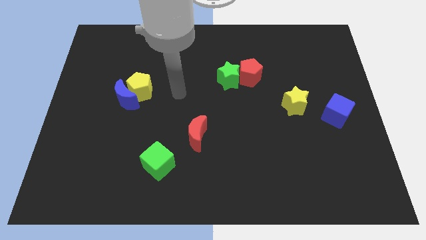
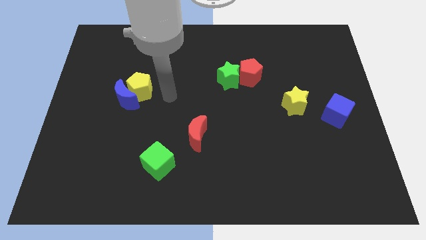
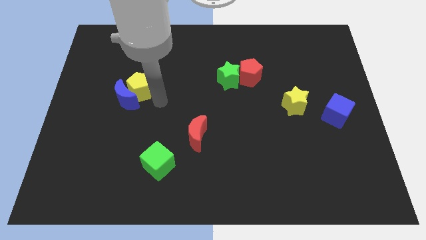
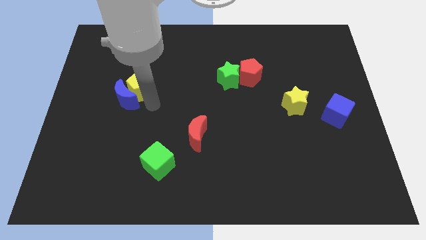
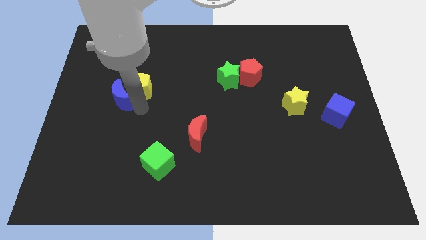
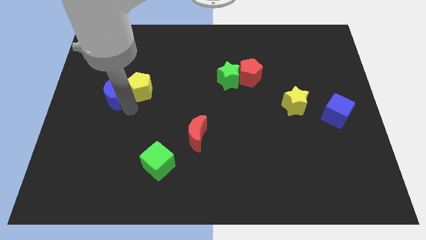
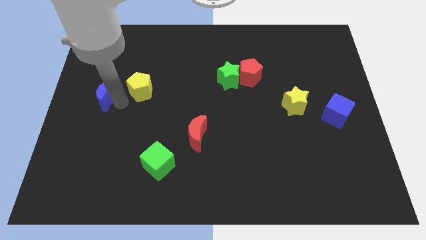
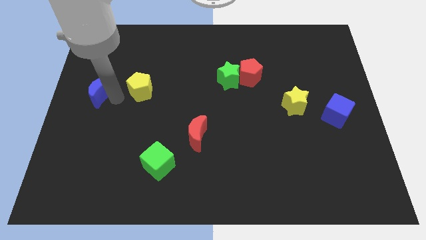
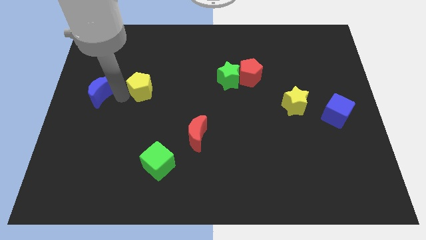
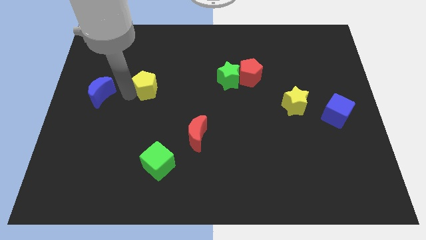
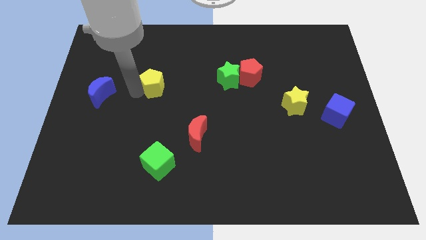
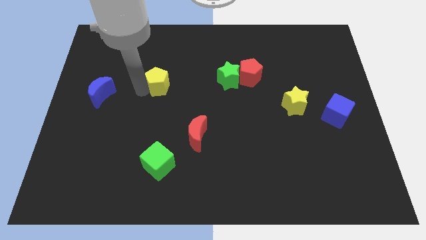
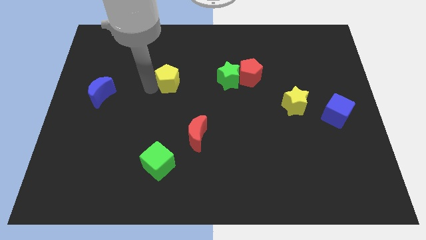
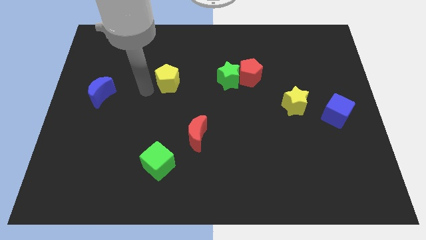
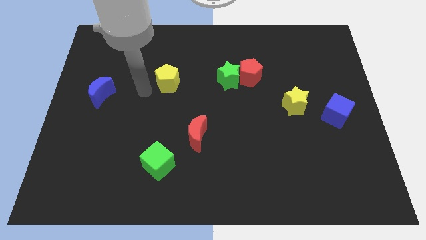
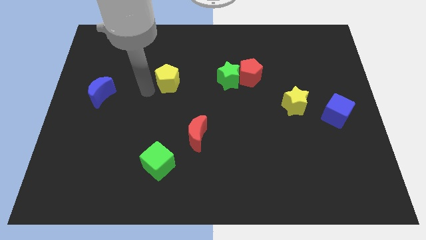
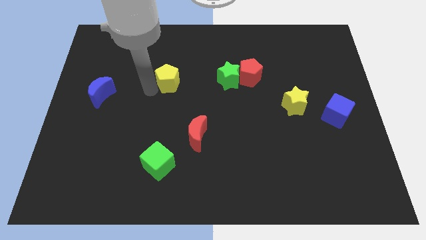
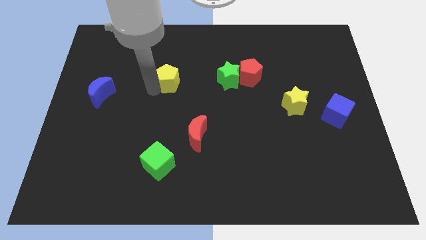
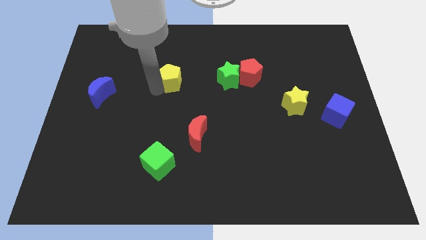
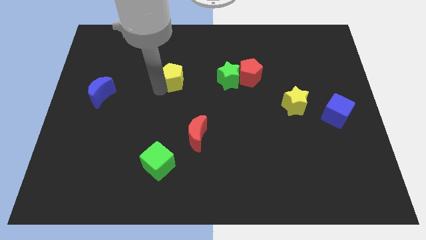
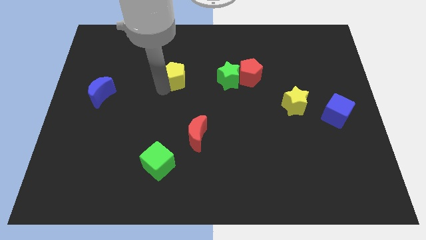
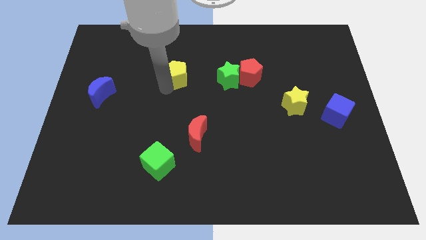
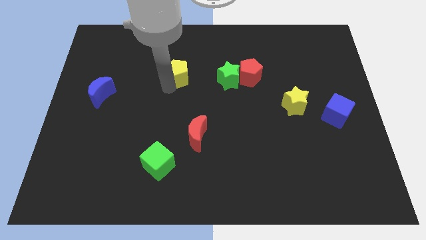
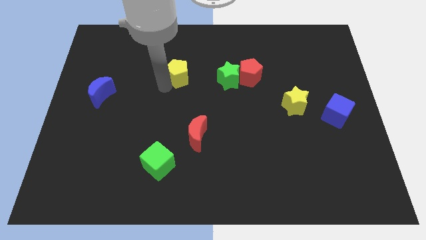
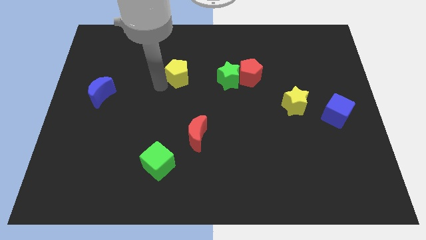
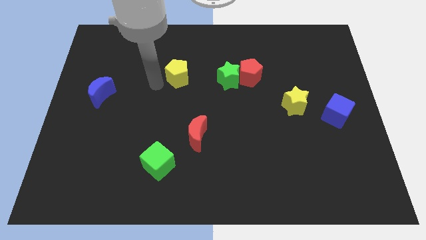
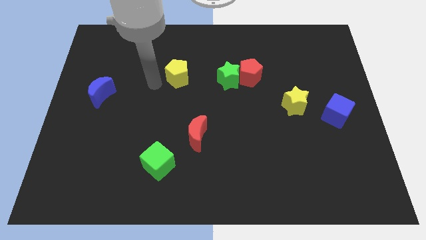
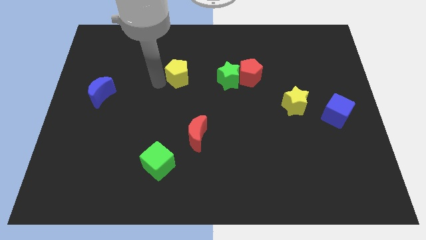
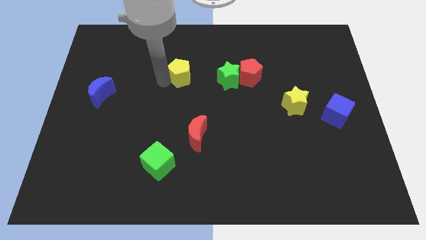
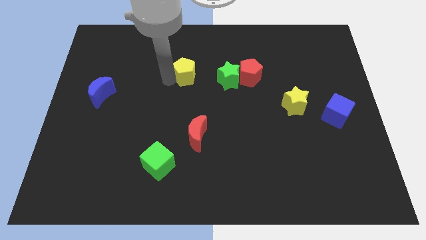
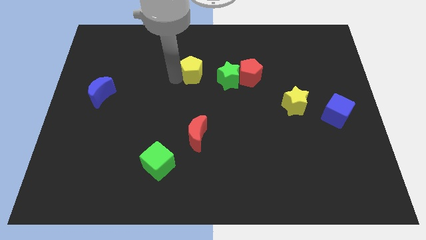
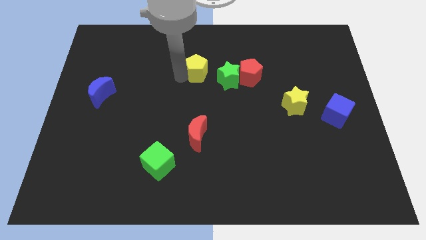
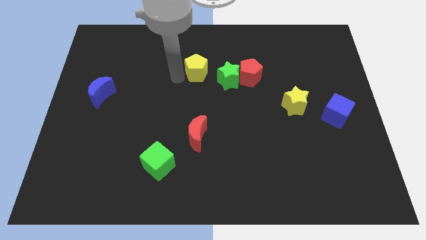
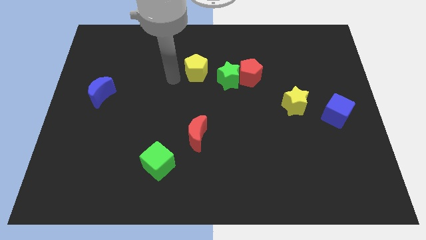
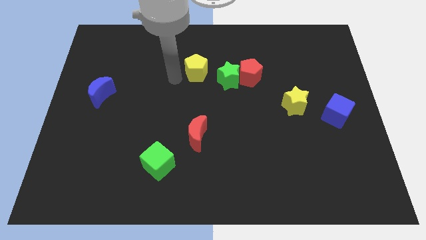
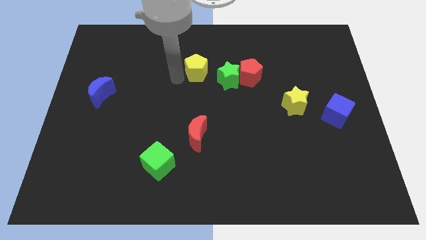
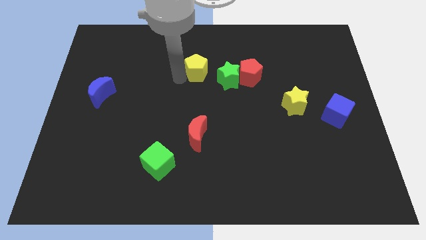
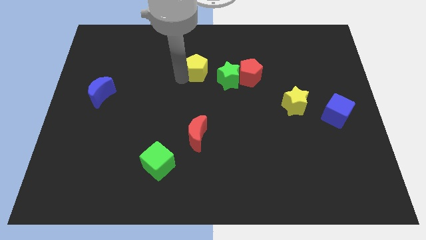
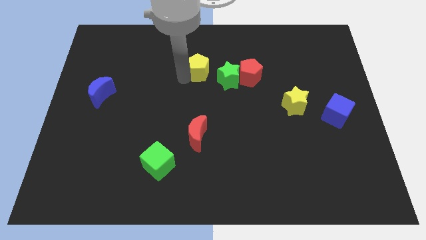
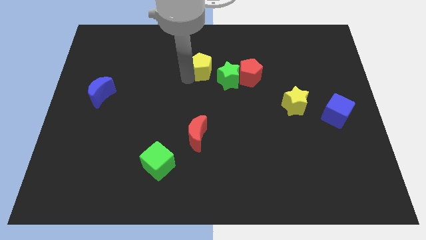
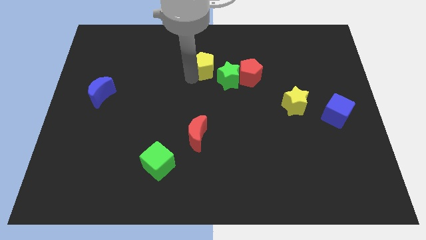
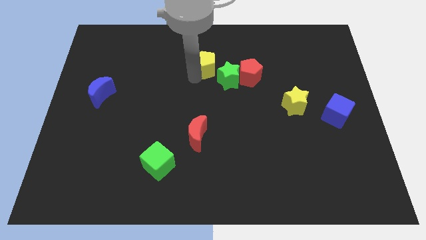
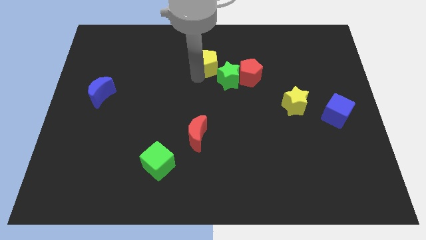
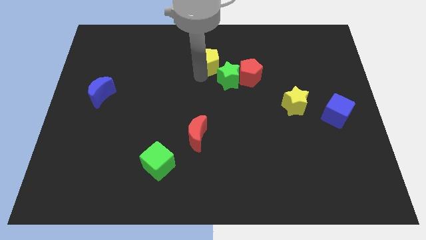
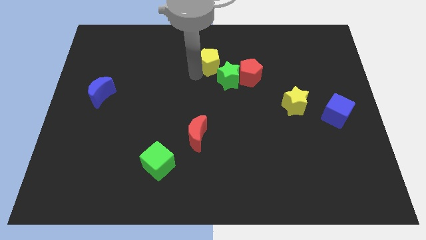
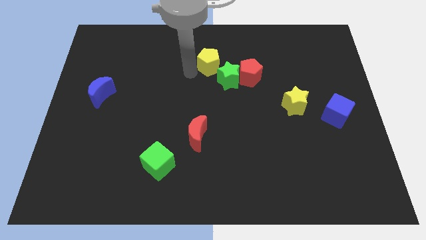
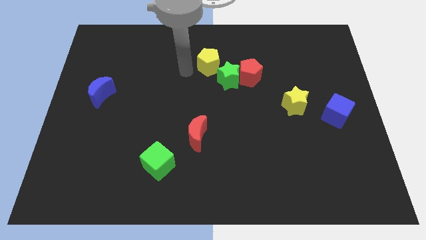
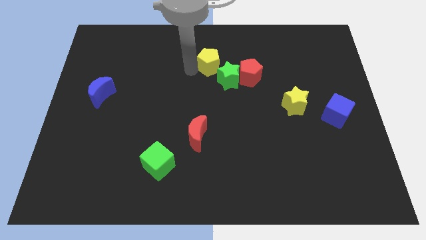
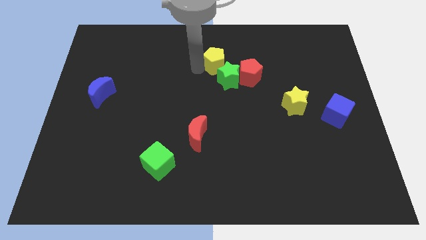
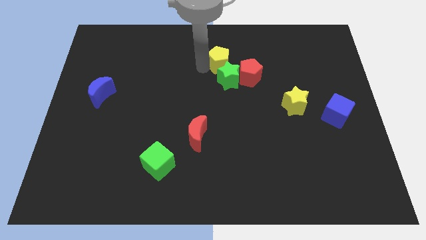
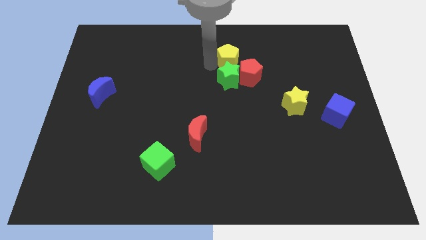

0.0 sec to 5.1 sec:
push the yellow pentagon to the top right side of the green star

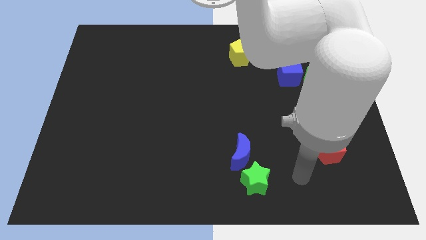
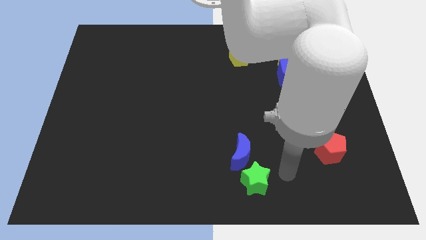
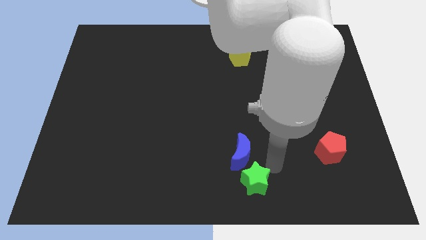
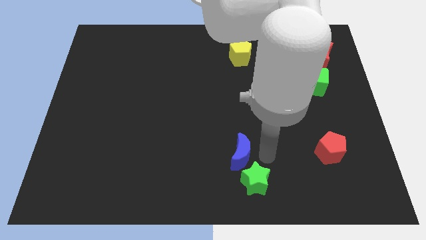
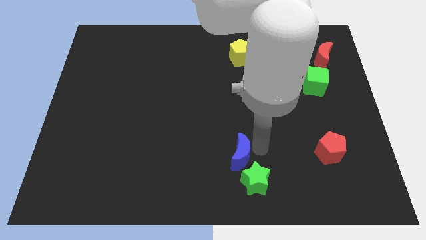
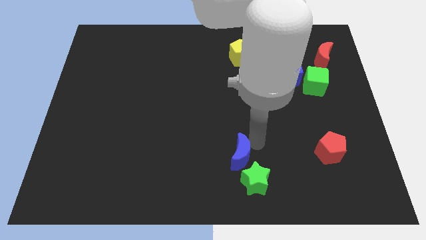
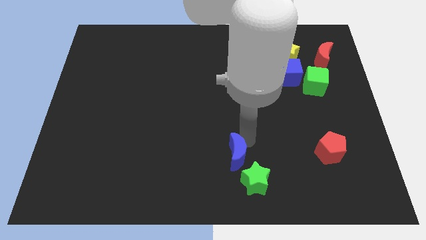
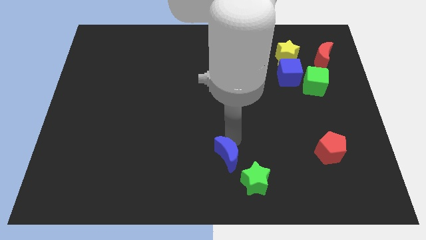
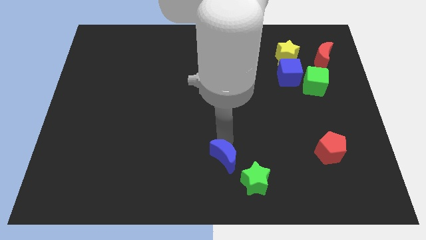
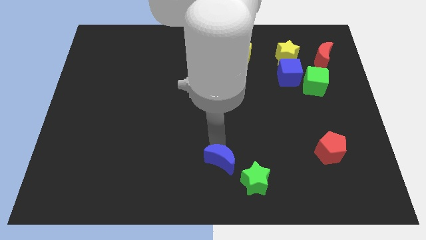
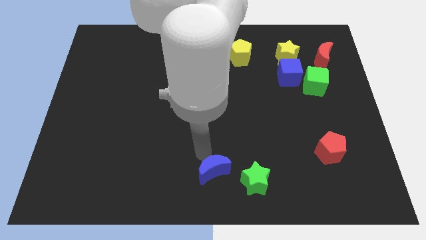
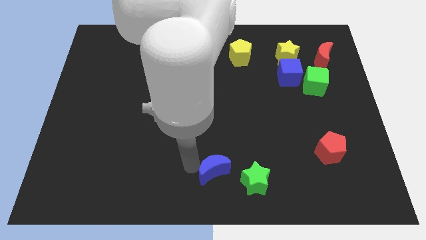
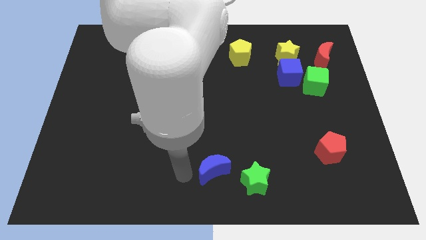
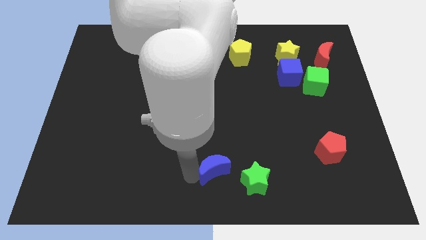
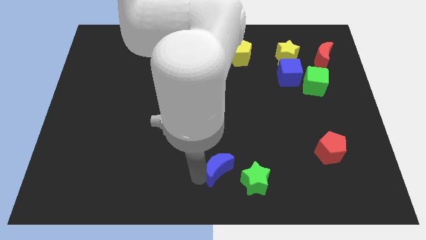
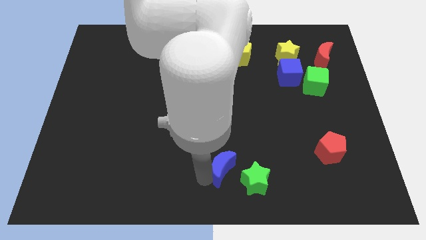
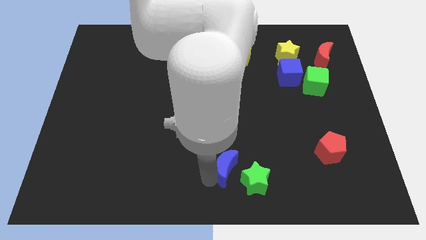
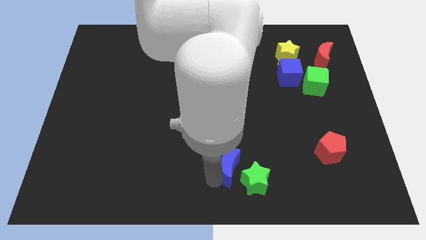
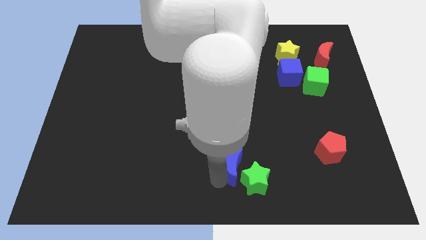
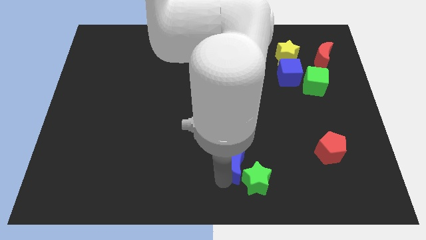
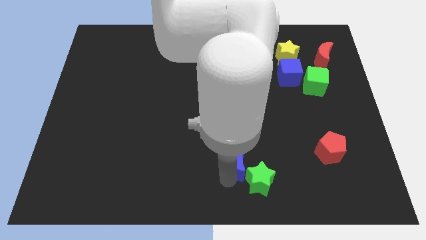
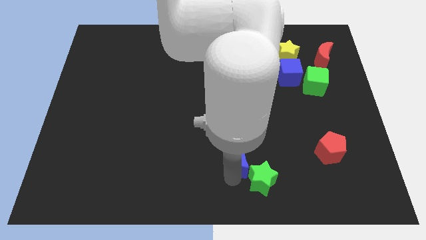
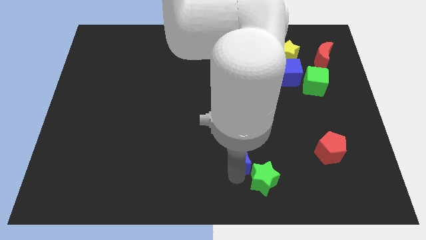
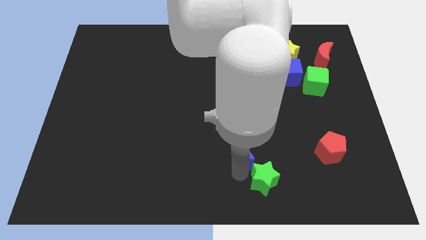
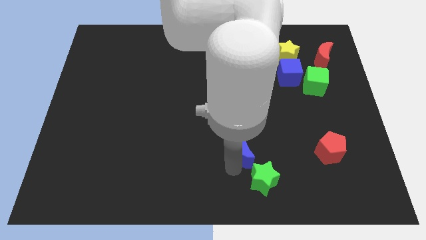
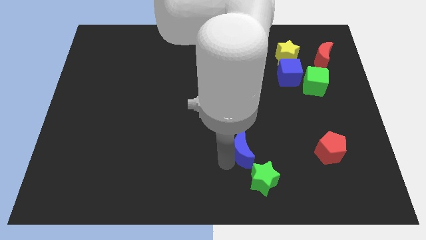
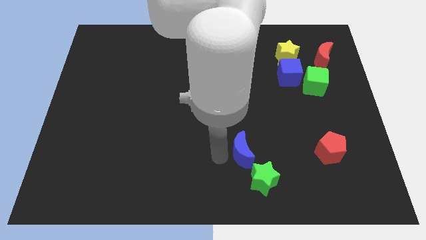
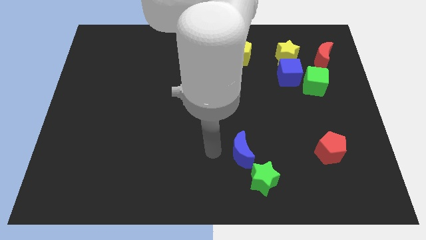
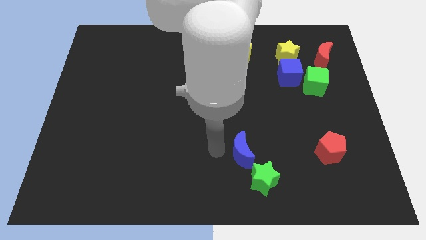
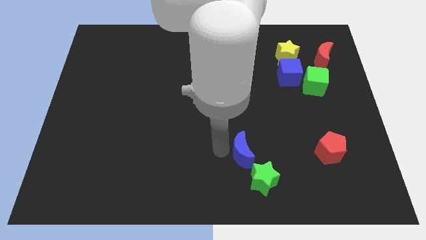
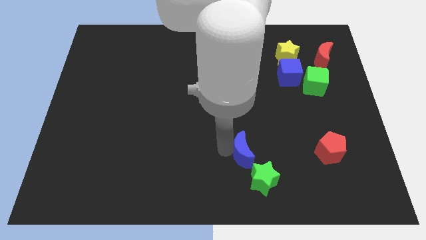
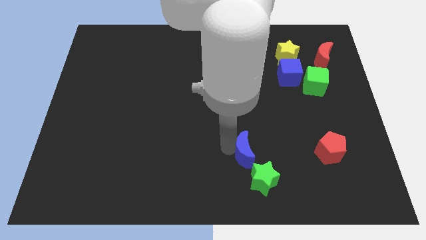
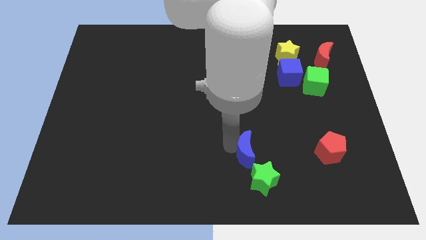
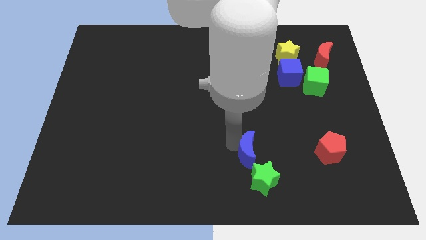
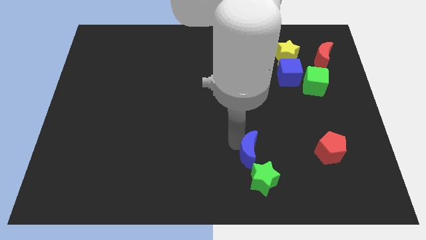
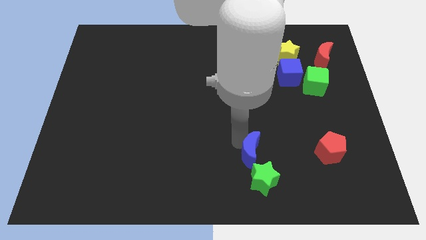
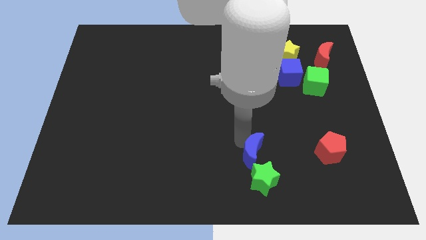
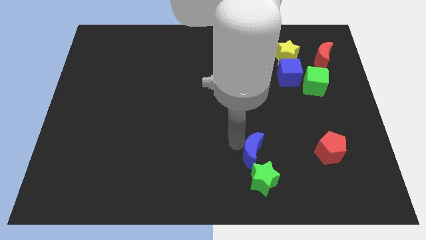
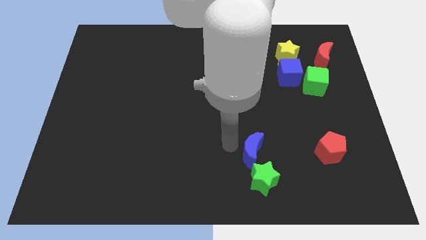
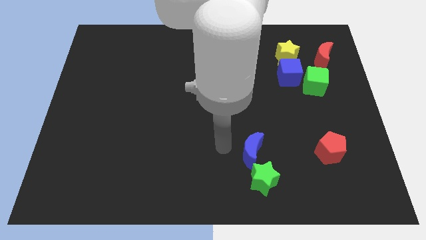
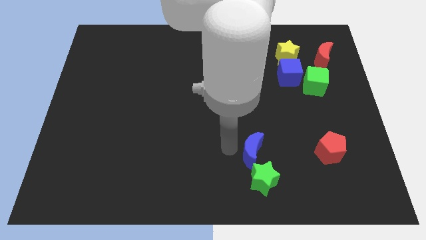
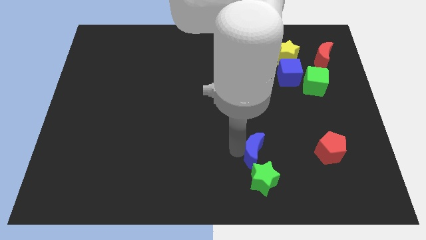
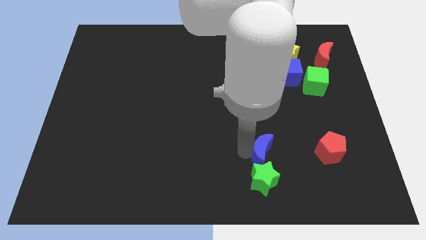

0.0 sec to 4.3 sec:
put the blue moon diagonally up and to the right of the green star
